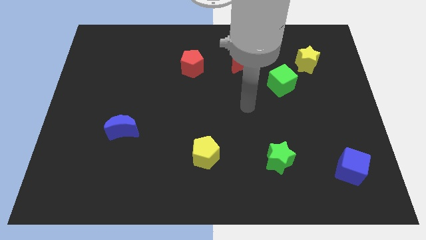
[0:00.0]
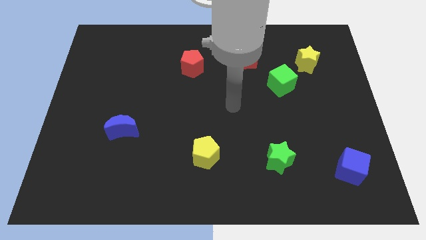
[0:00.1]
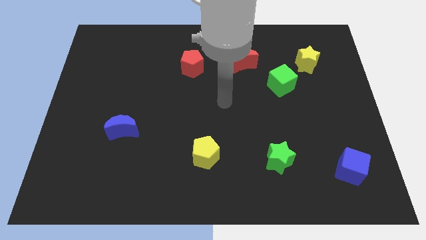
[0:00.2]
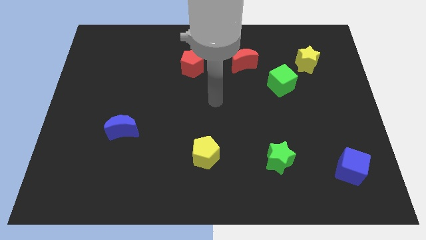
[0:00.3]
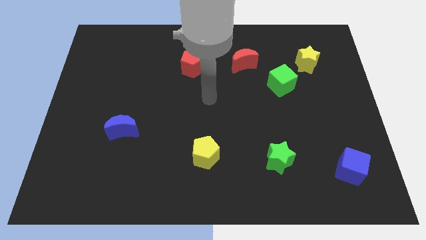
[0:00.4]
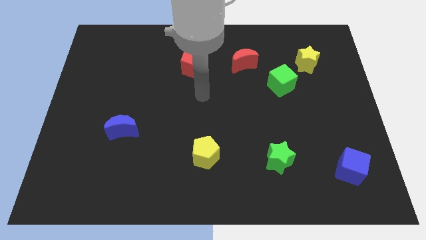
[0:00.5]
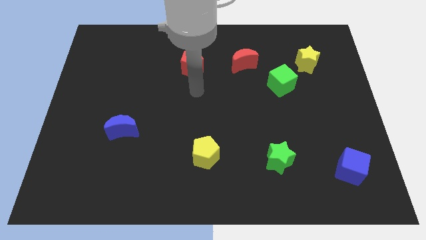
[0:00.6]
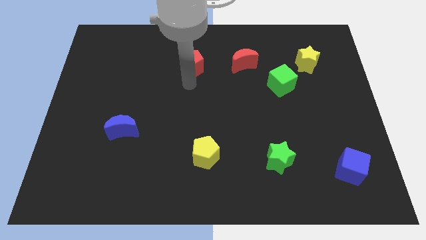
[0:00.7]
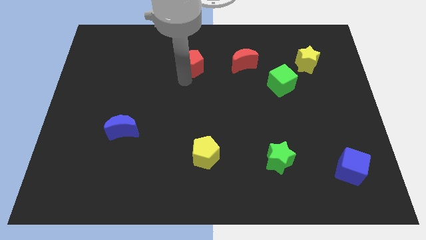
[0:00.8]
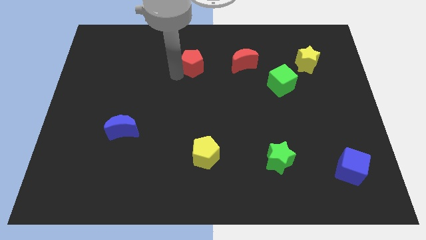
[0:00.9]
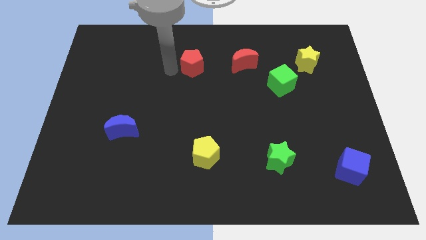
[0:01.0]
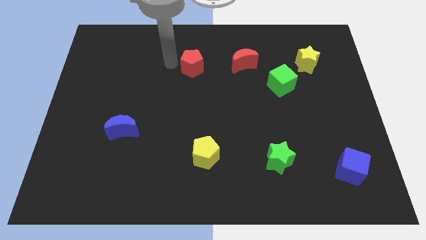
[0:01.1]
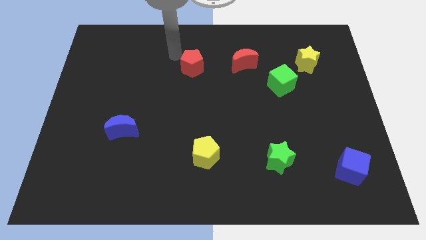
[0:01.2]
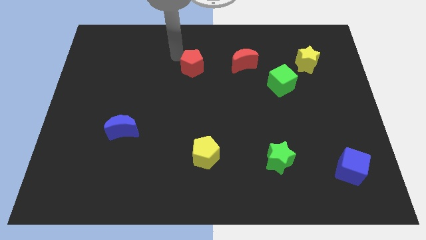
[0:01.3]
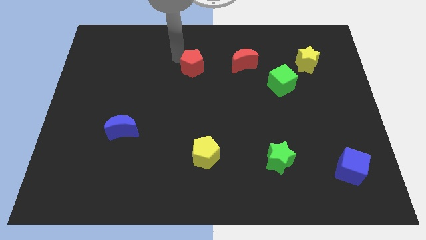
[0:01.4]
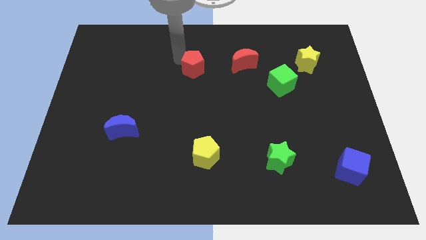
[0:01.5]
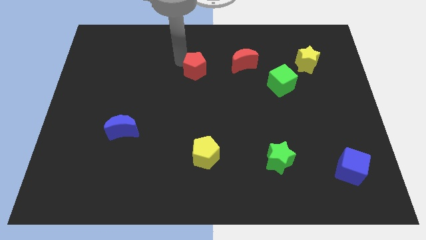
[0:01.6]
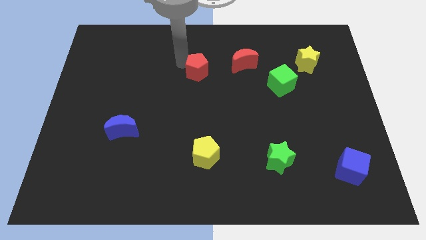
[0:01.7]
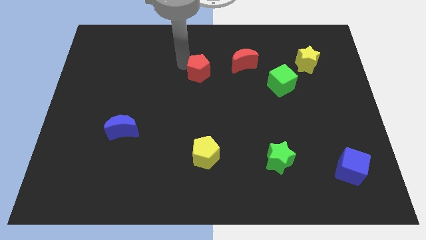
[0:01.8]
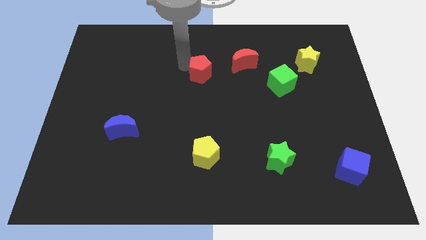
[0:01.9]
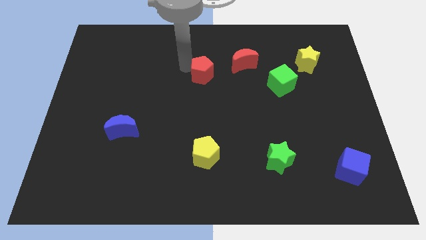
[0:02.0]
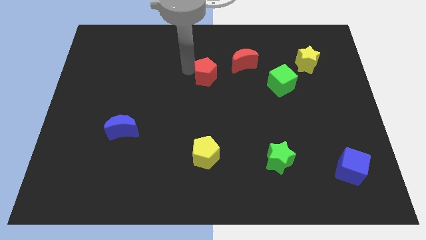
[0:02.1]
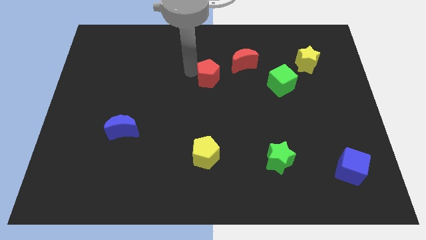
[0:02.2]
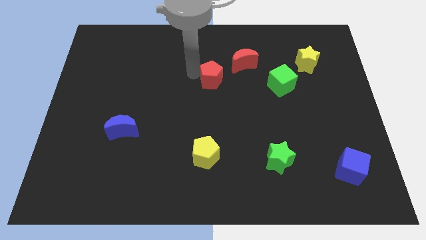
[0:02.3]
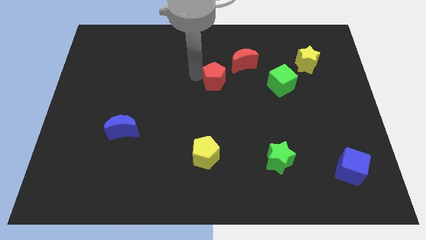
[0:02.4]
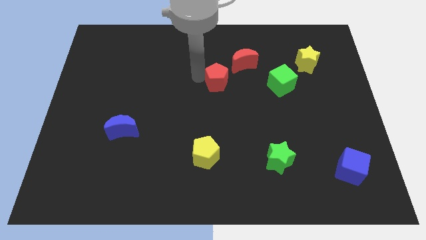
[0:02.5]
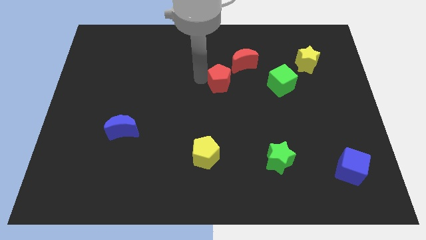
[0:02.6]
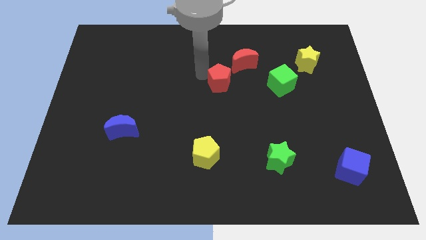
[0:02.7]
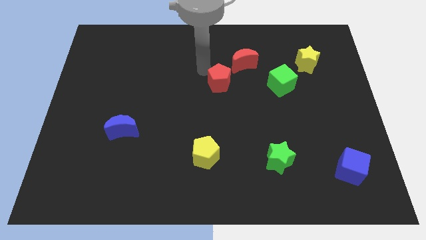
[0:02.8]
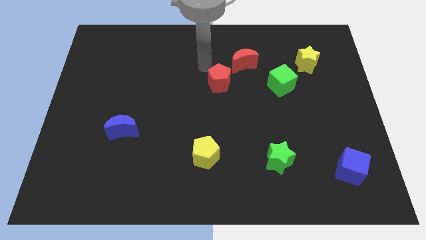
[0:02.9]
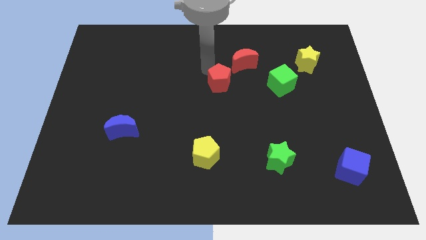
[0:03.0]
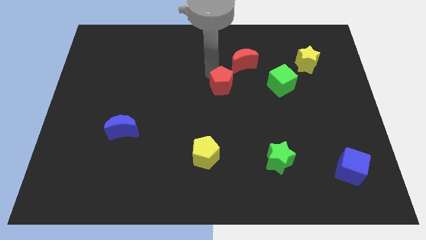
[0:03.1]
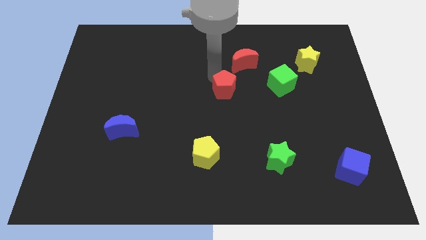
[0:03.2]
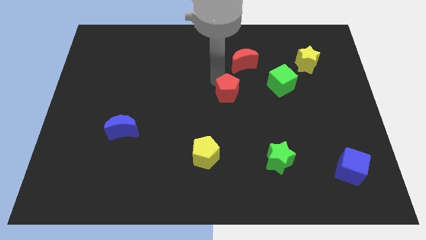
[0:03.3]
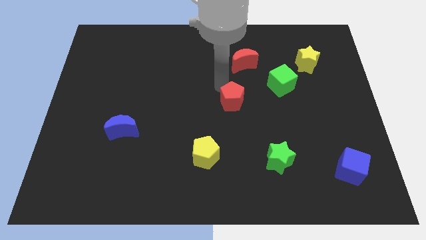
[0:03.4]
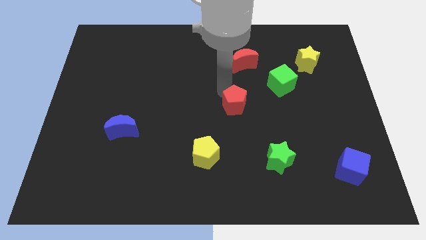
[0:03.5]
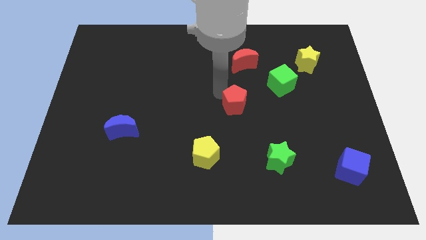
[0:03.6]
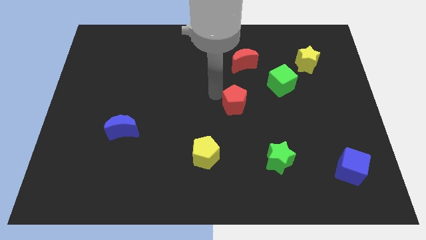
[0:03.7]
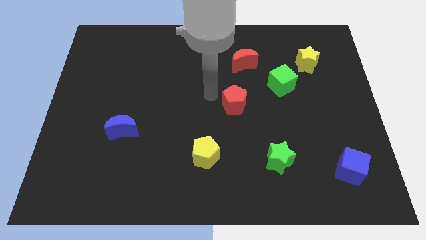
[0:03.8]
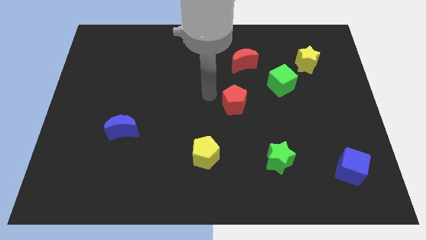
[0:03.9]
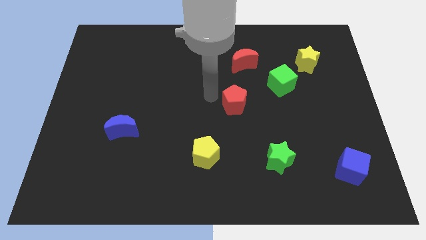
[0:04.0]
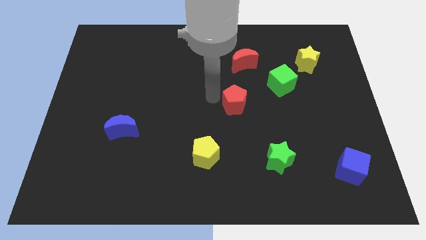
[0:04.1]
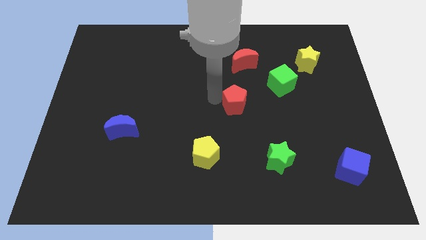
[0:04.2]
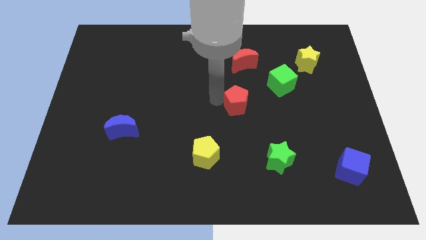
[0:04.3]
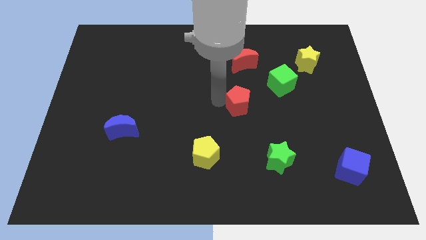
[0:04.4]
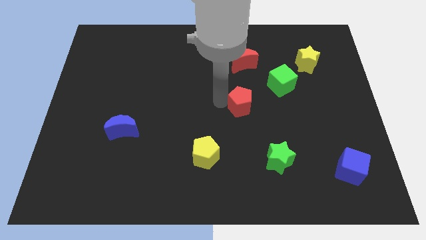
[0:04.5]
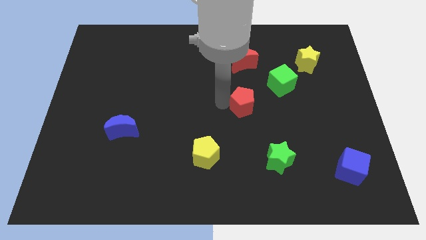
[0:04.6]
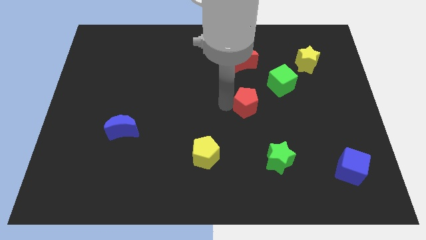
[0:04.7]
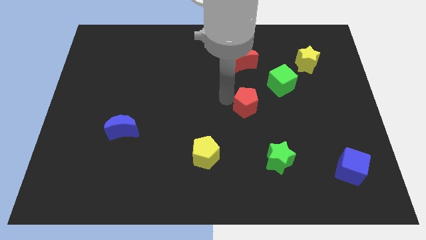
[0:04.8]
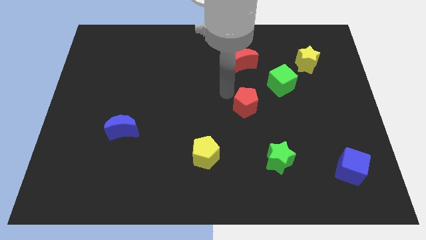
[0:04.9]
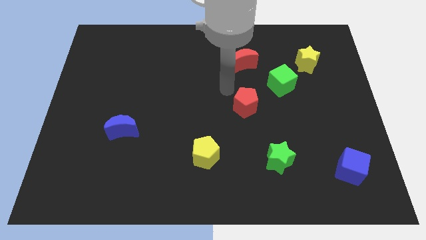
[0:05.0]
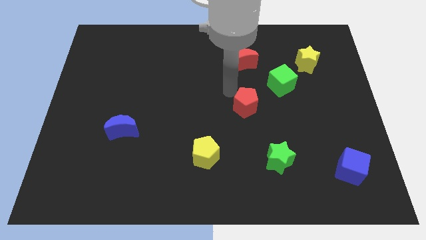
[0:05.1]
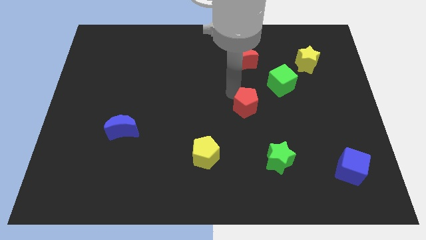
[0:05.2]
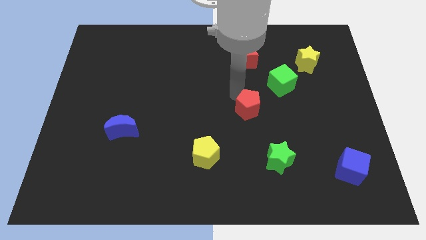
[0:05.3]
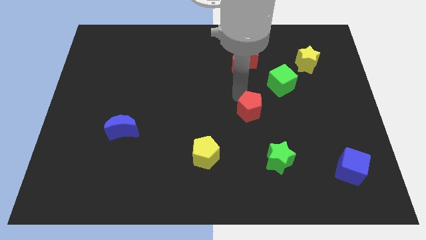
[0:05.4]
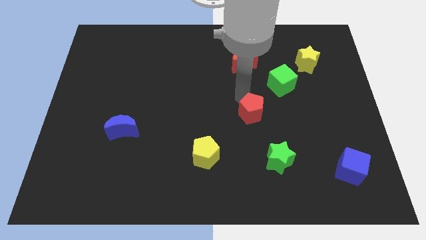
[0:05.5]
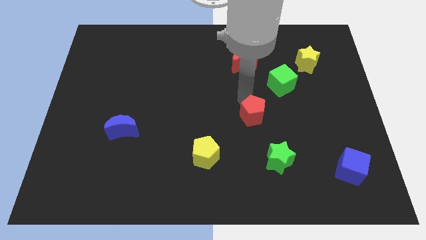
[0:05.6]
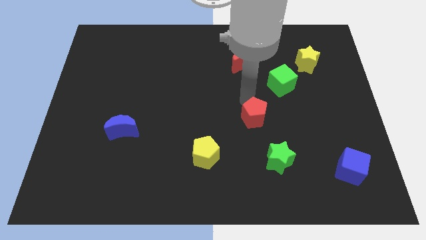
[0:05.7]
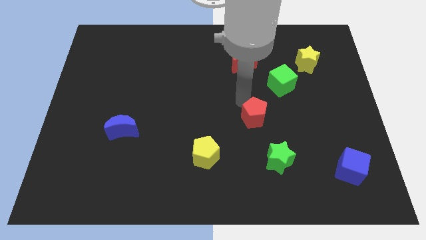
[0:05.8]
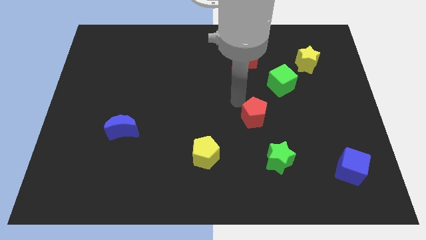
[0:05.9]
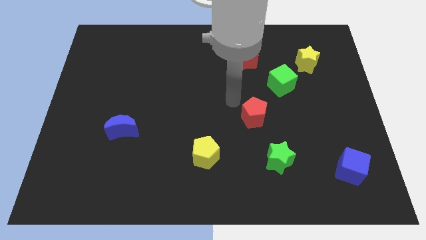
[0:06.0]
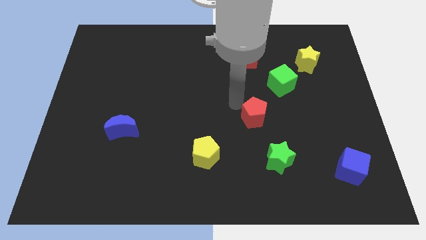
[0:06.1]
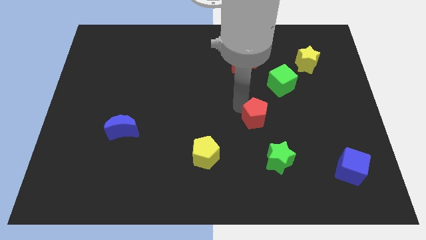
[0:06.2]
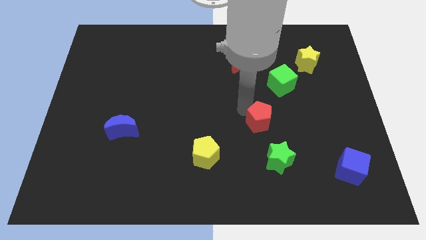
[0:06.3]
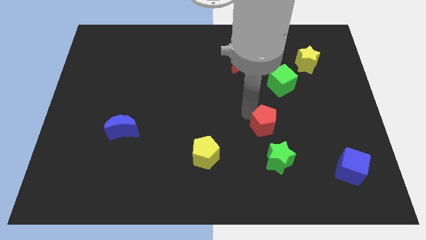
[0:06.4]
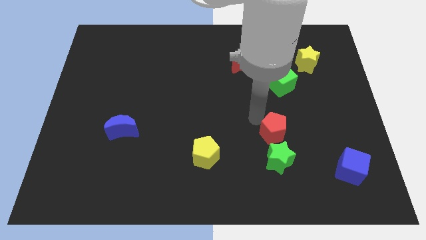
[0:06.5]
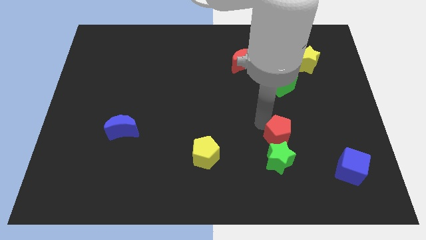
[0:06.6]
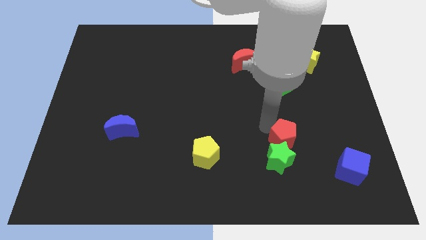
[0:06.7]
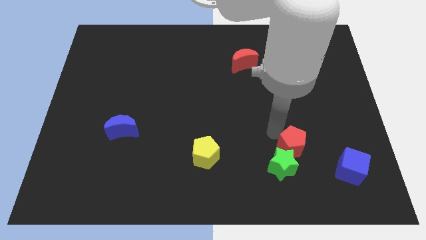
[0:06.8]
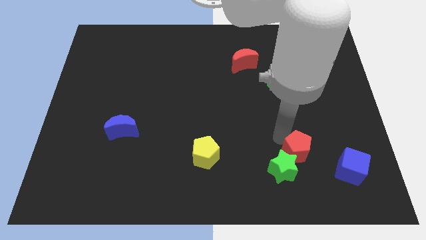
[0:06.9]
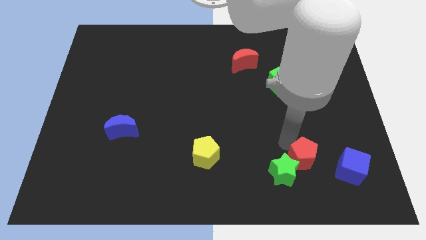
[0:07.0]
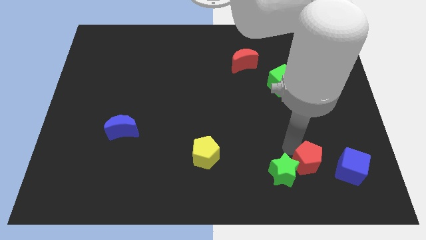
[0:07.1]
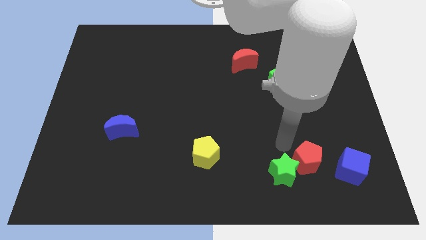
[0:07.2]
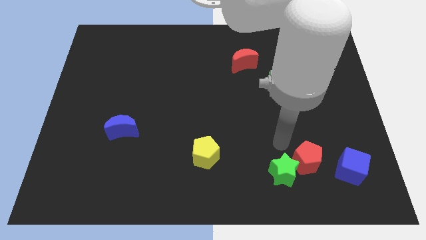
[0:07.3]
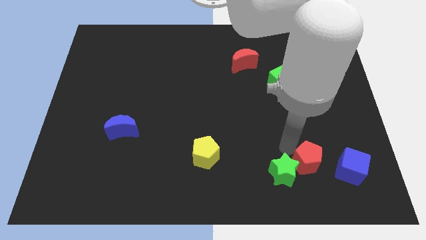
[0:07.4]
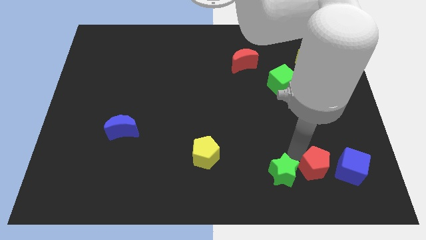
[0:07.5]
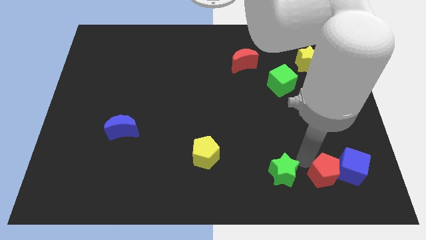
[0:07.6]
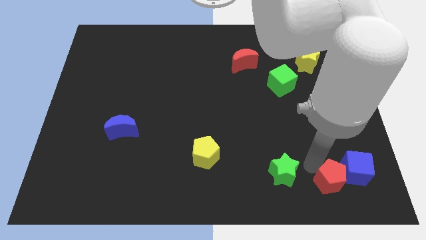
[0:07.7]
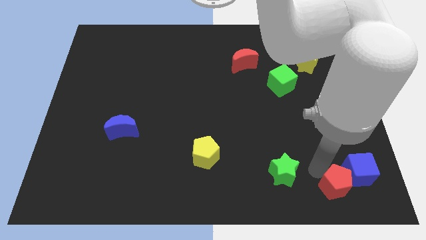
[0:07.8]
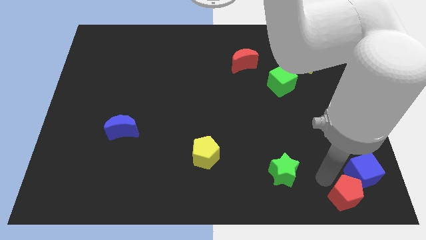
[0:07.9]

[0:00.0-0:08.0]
slide the red pentagon to the bottom right corner
